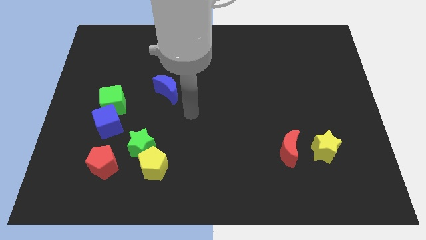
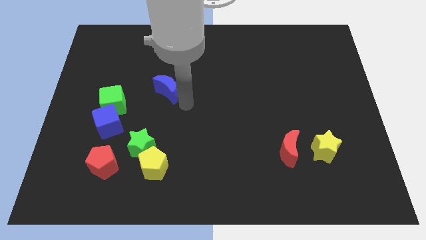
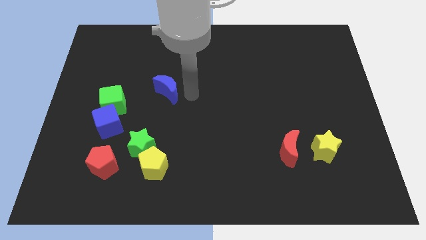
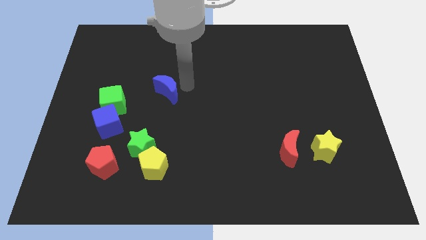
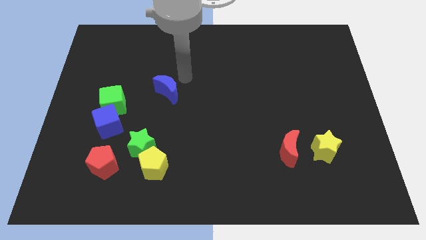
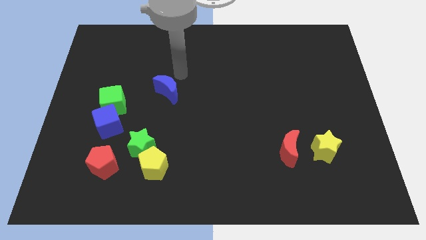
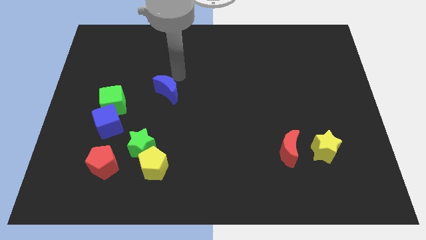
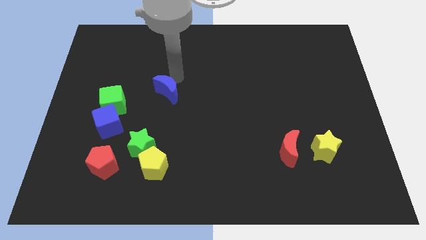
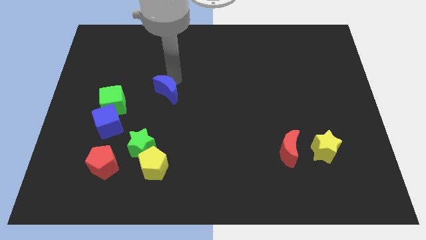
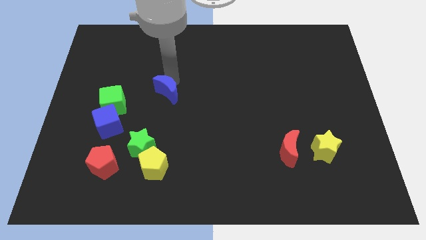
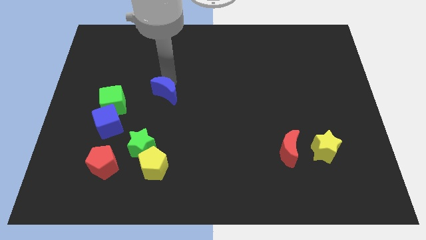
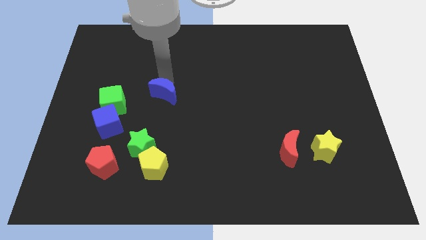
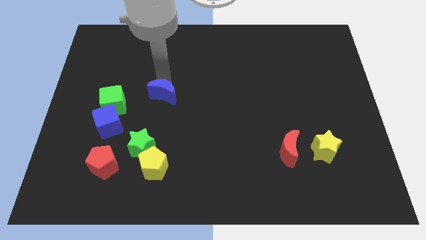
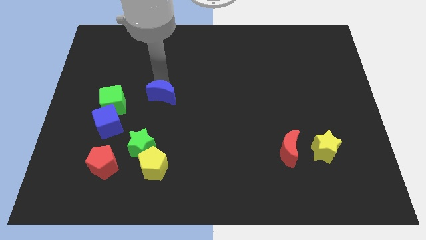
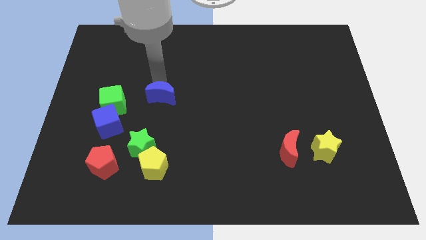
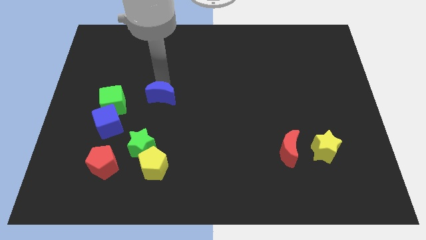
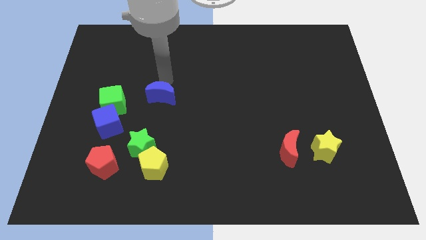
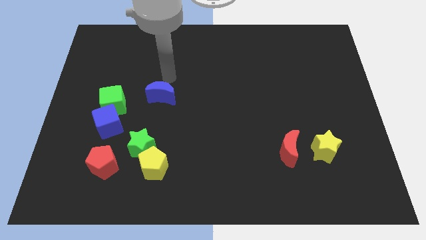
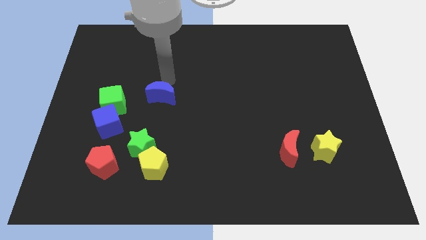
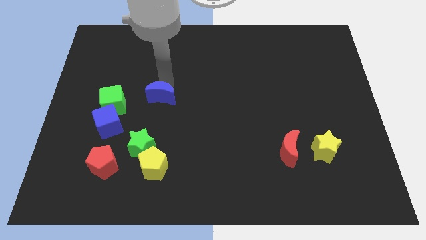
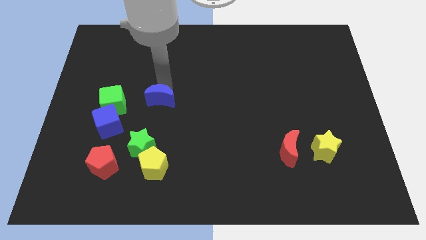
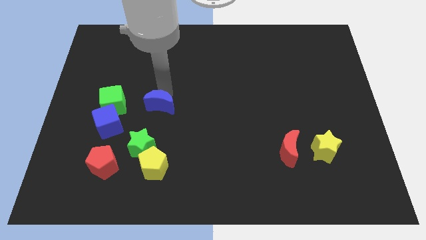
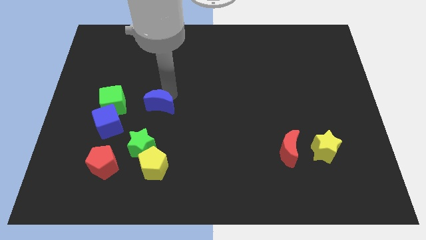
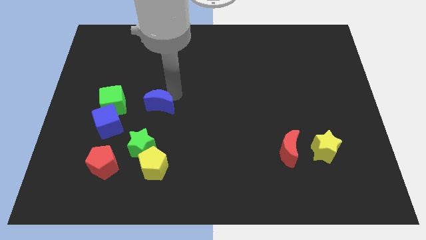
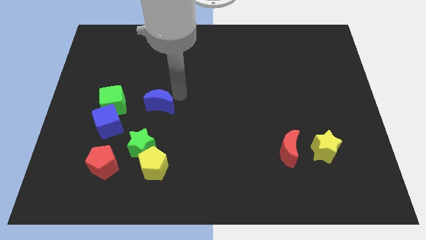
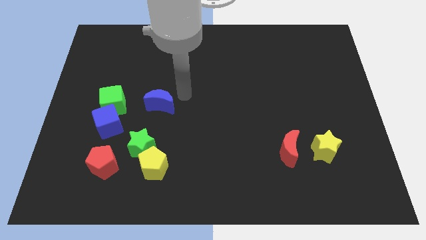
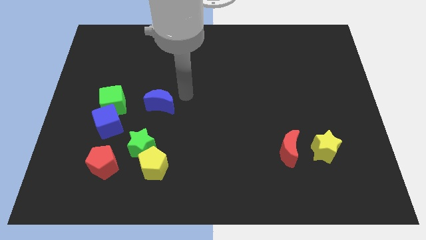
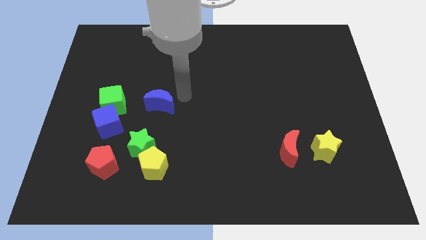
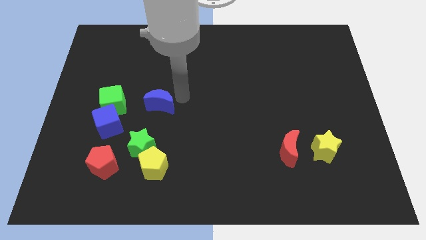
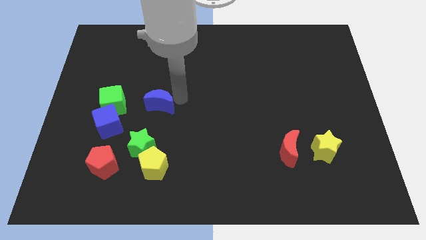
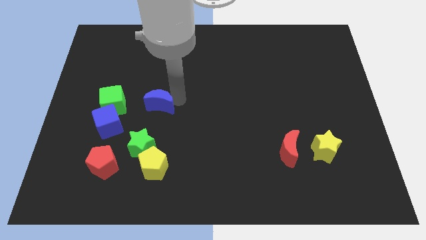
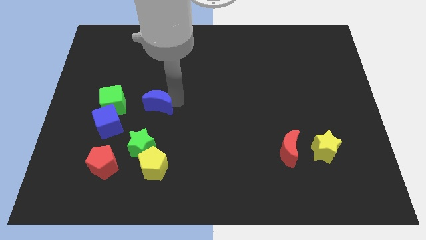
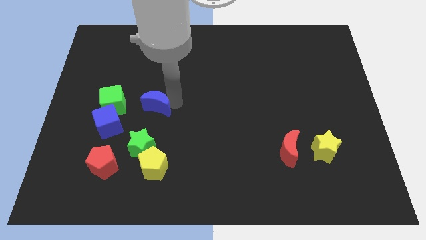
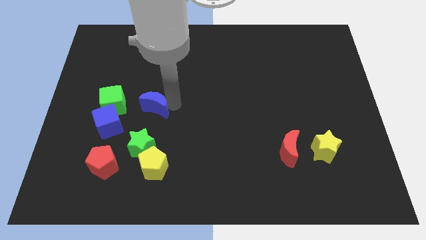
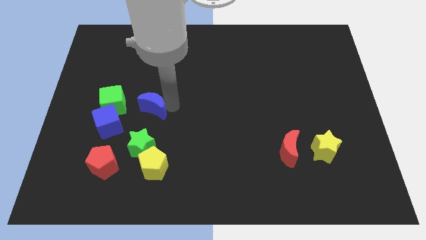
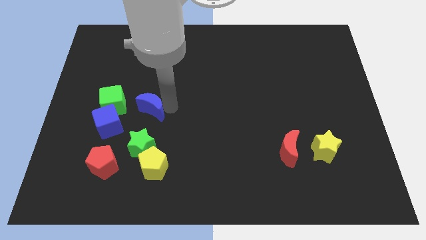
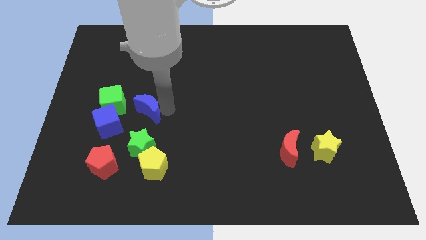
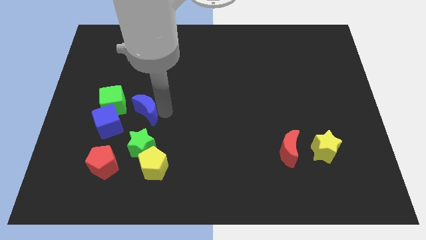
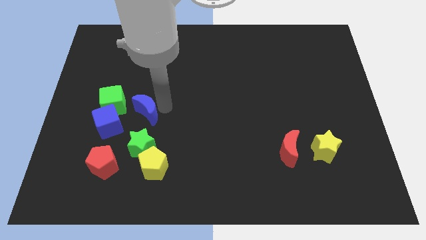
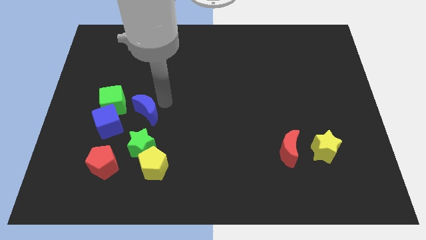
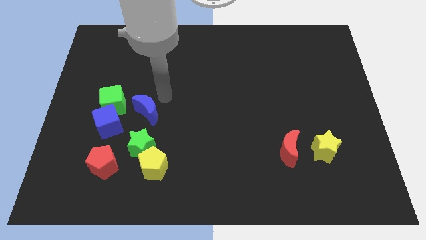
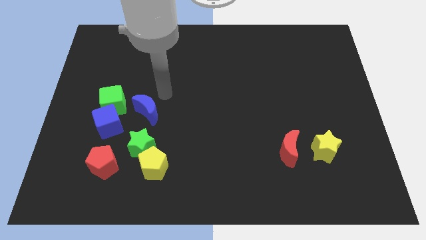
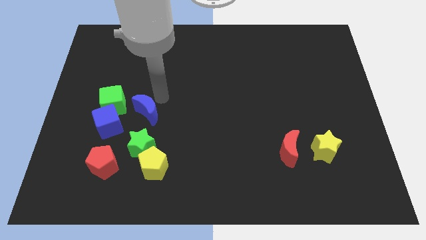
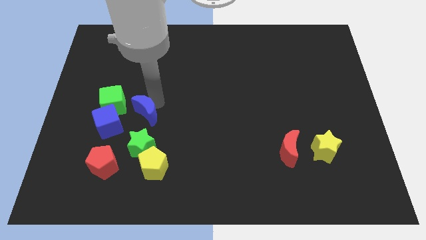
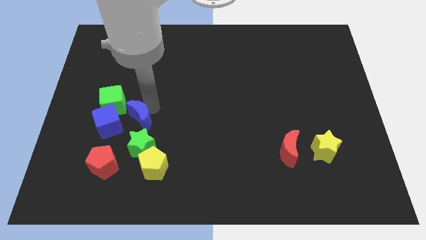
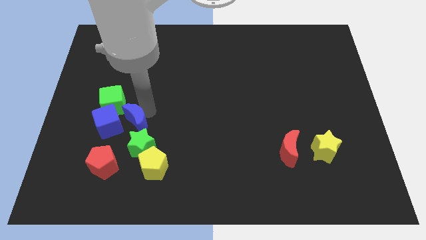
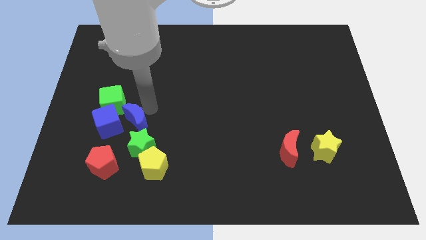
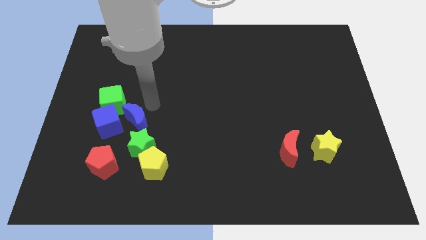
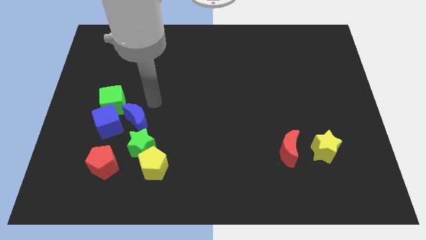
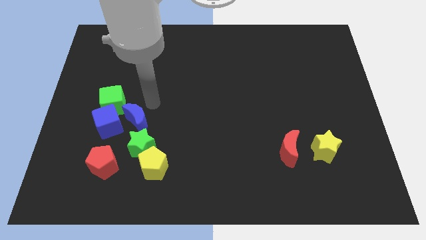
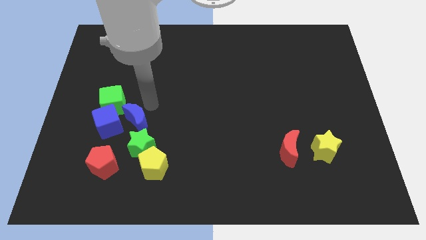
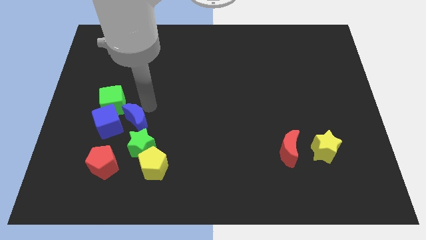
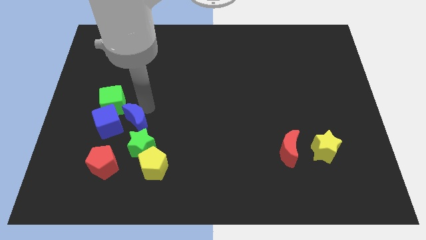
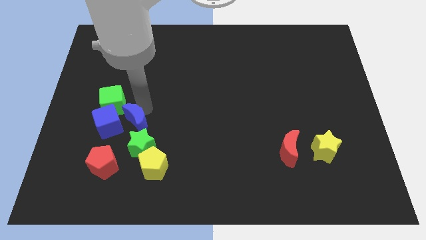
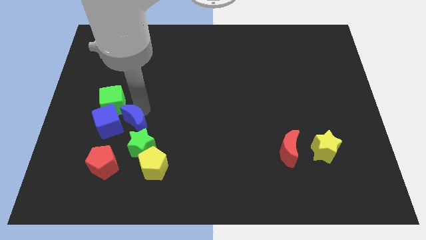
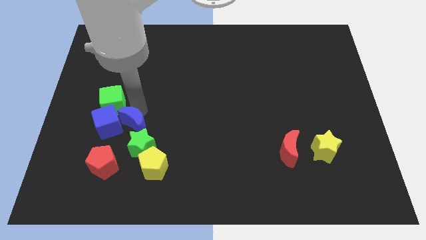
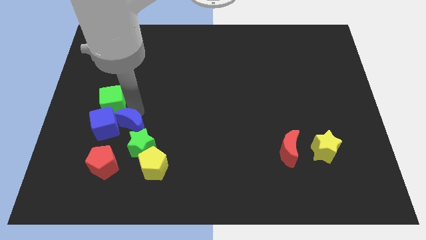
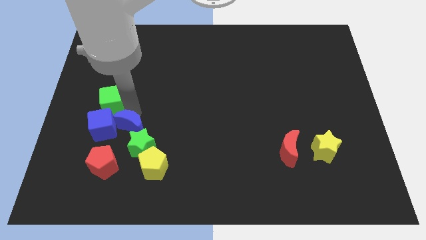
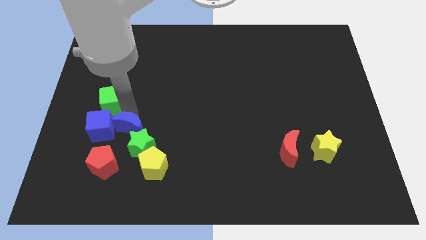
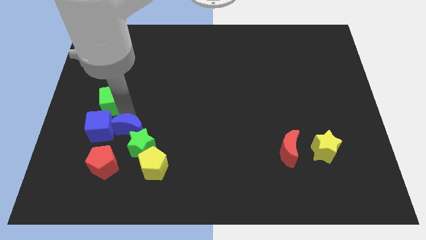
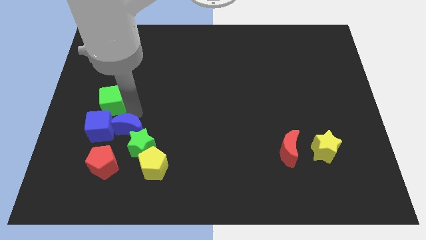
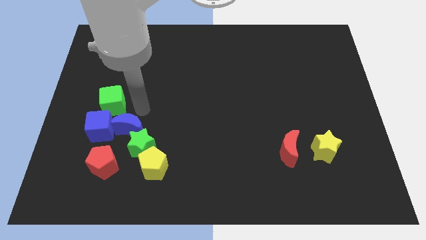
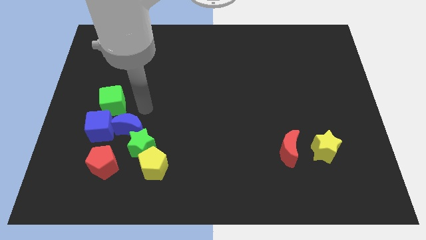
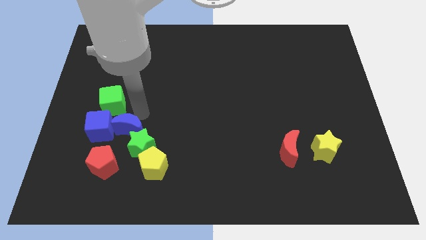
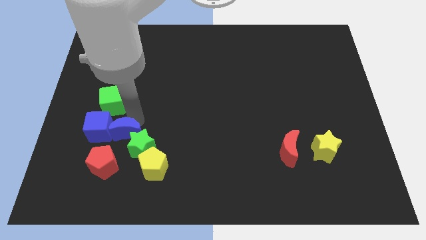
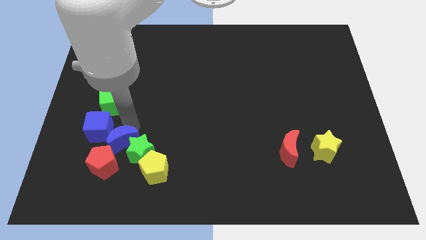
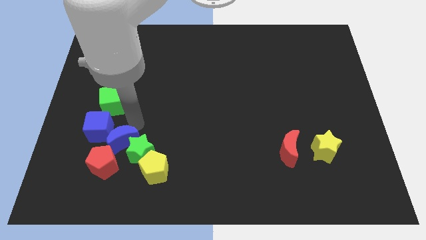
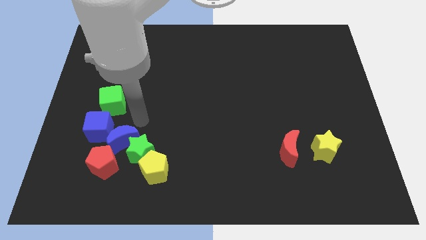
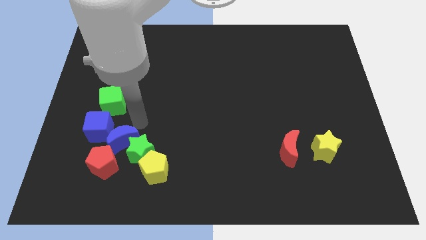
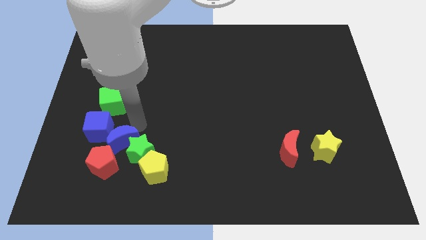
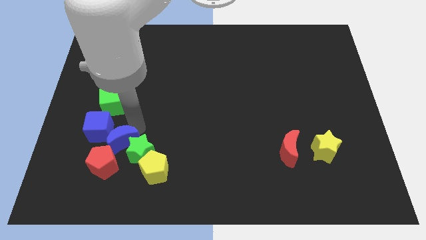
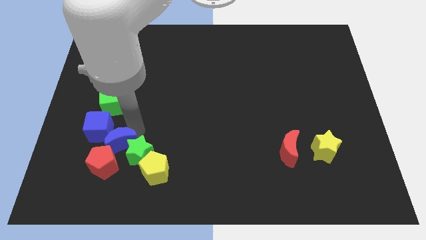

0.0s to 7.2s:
move the blue moon towards the red pentagon

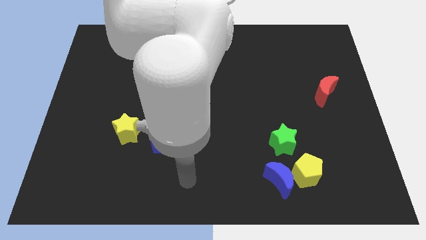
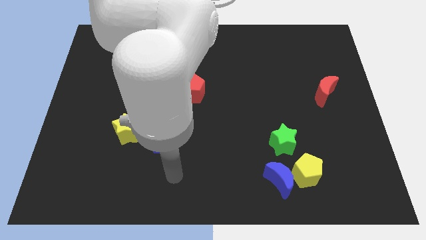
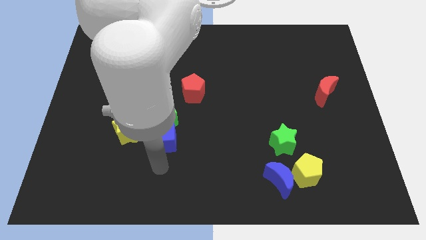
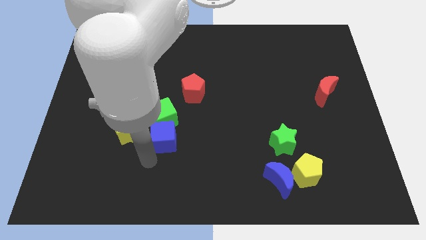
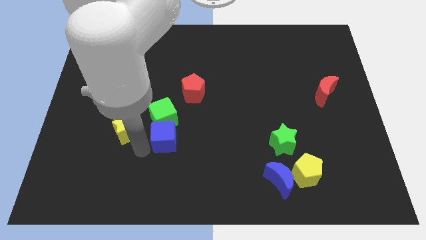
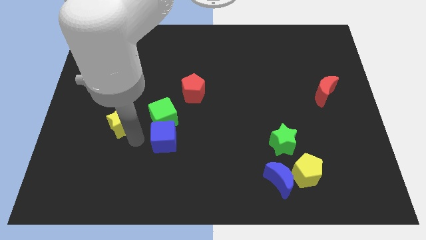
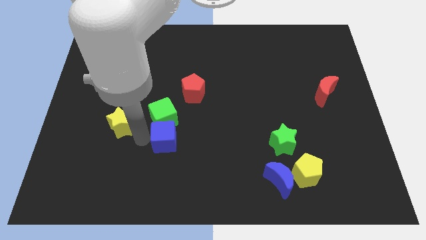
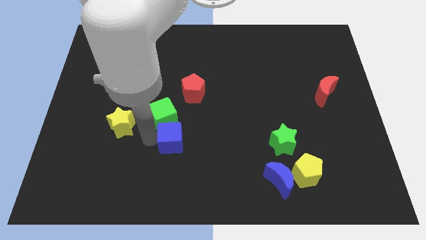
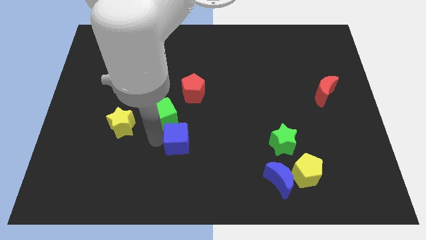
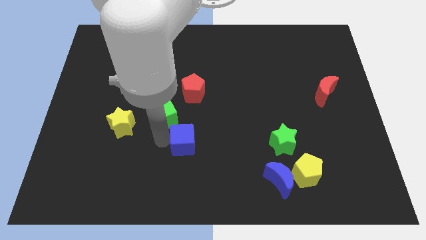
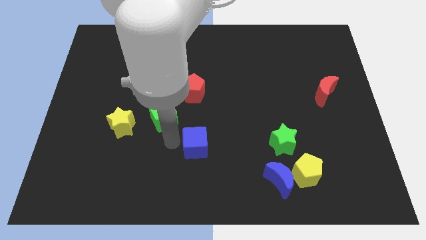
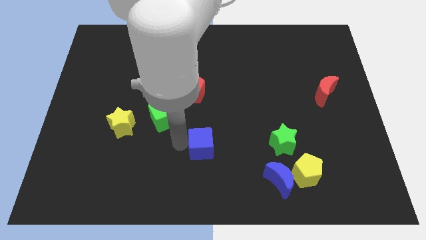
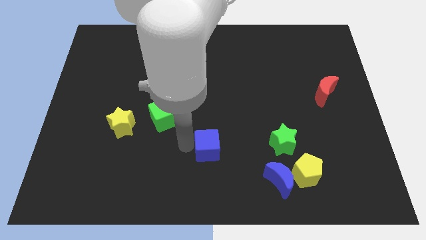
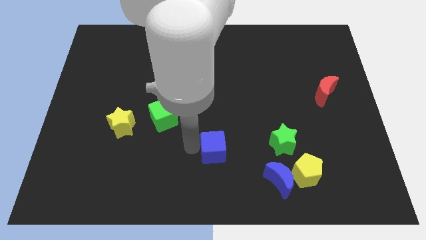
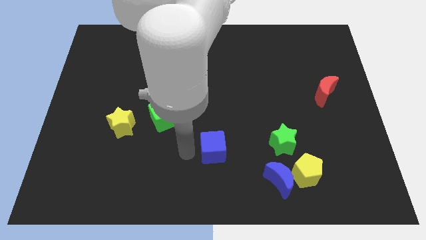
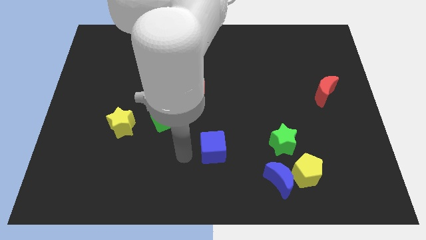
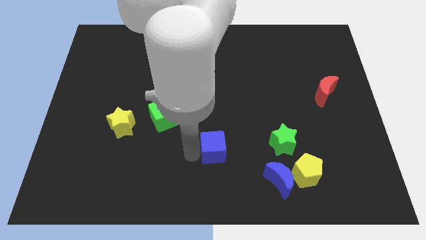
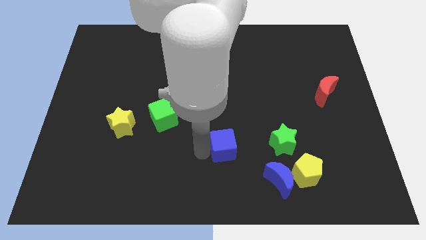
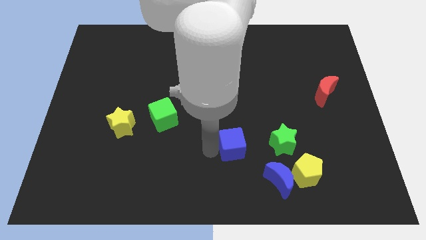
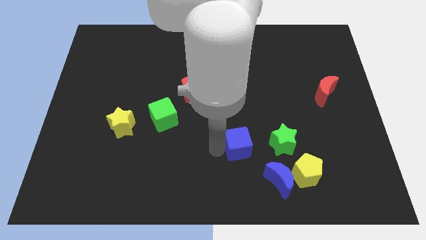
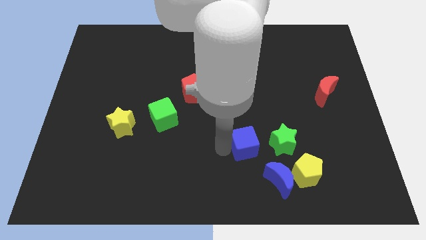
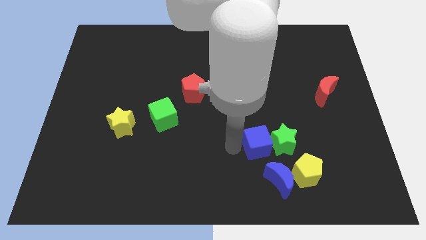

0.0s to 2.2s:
put the blue cube next to the green star
